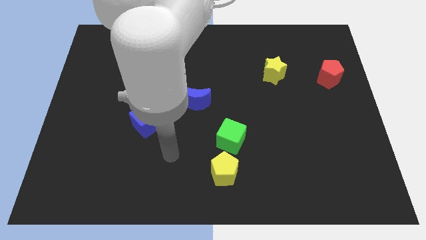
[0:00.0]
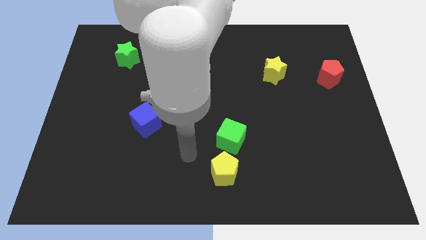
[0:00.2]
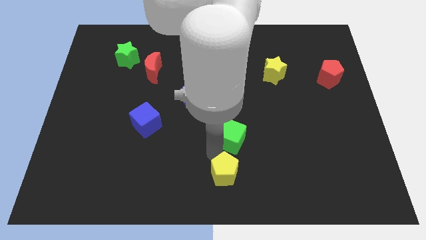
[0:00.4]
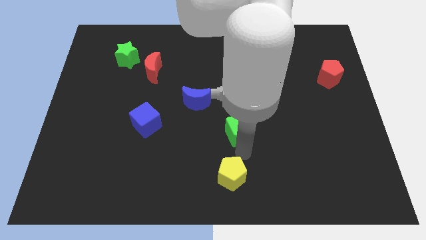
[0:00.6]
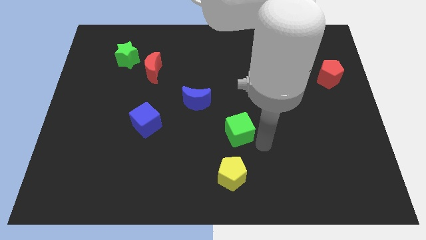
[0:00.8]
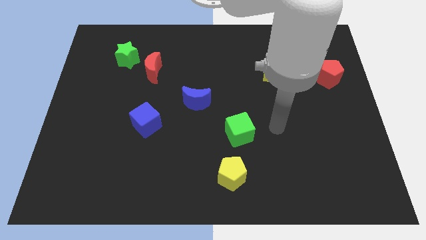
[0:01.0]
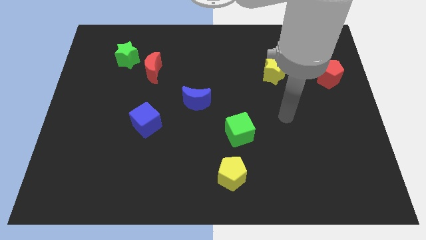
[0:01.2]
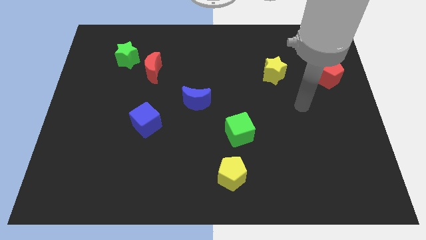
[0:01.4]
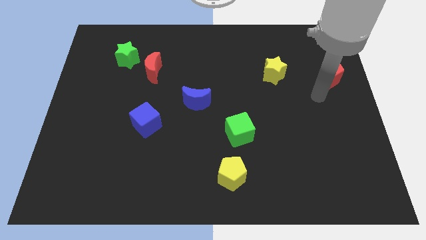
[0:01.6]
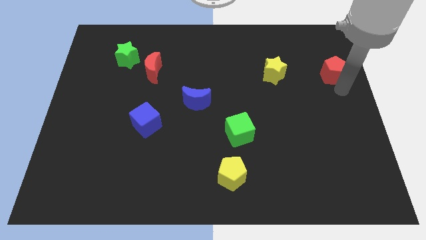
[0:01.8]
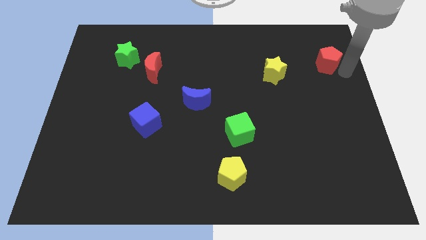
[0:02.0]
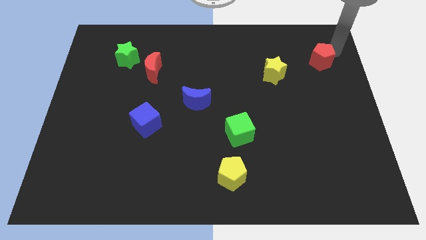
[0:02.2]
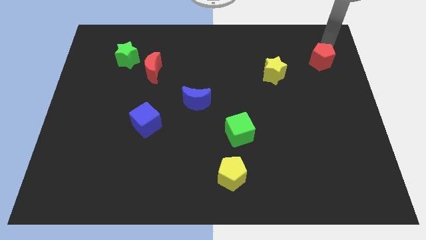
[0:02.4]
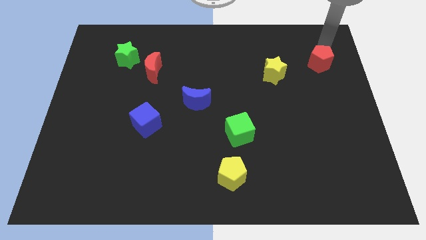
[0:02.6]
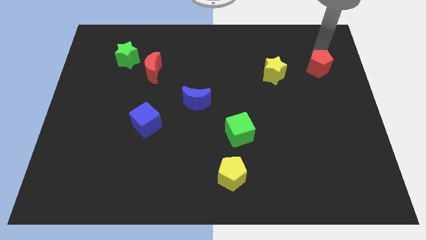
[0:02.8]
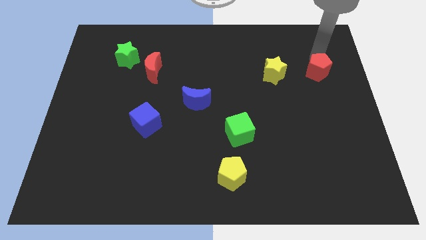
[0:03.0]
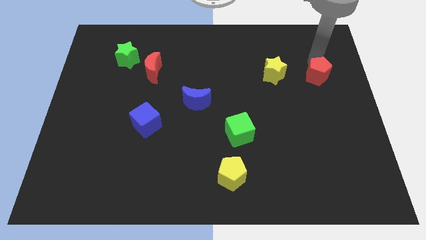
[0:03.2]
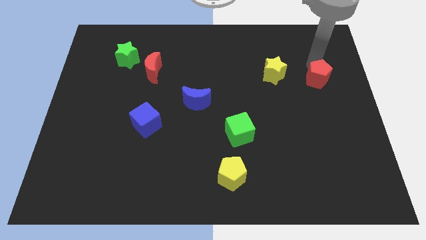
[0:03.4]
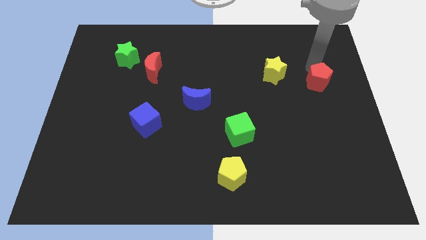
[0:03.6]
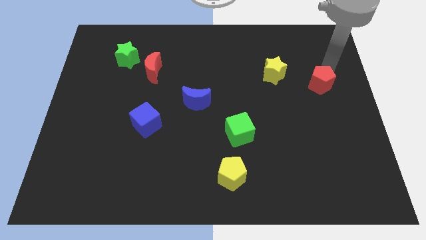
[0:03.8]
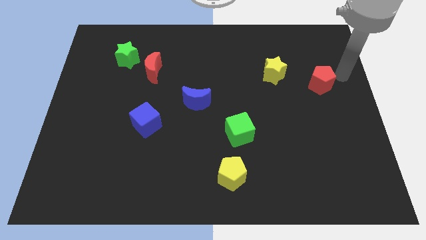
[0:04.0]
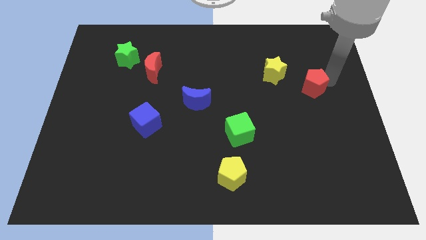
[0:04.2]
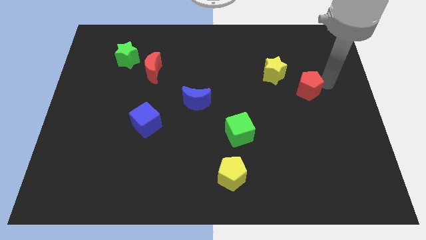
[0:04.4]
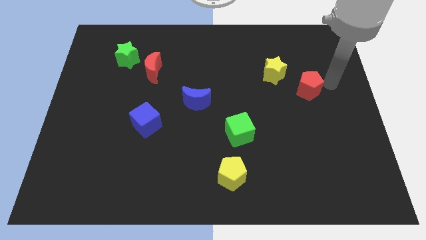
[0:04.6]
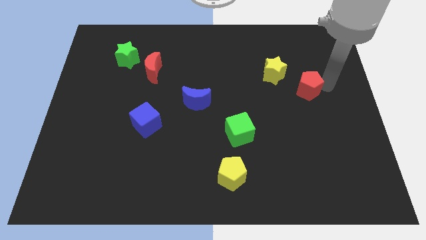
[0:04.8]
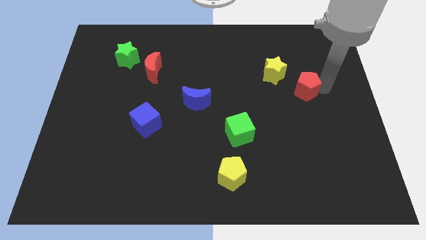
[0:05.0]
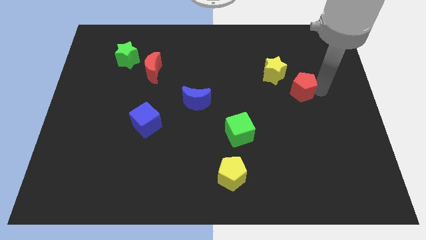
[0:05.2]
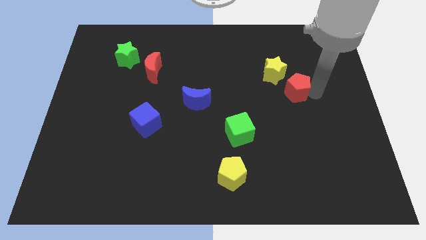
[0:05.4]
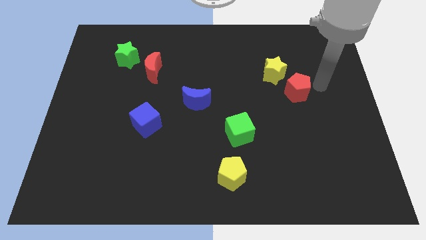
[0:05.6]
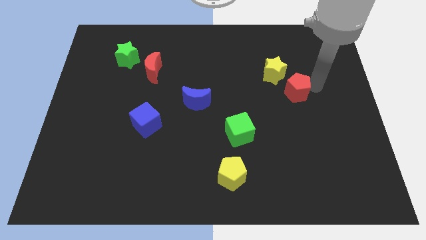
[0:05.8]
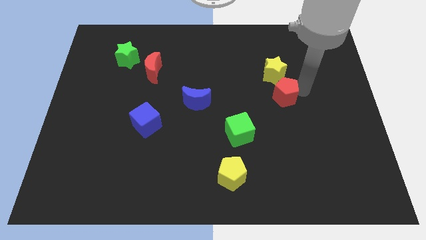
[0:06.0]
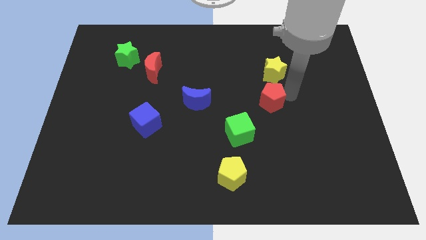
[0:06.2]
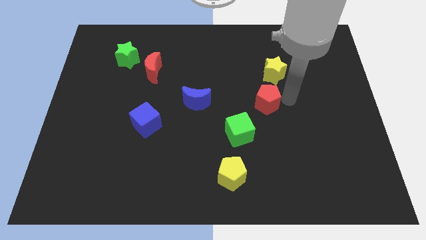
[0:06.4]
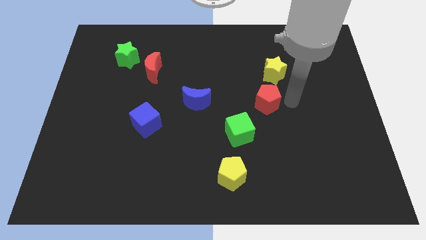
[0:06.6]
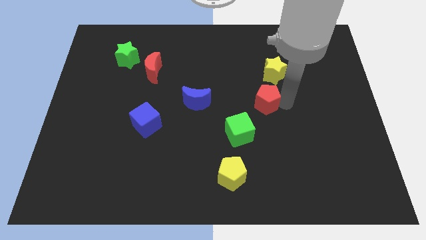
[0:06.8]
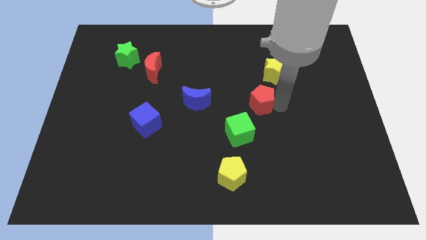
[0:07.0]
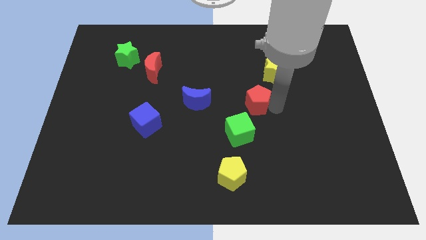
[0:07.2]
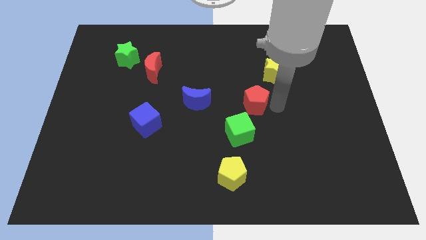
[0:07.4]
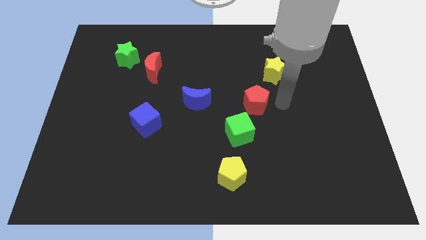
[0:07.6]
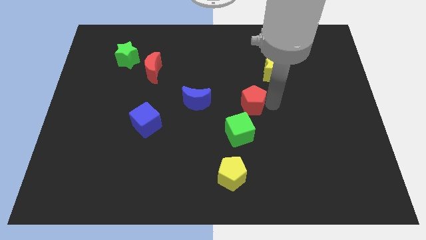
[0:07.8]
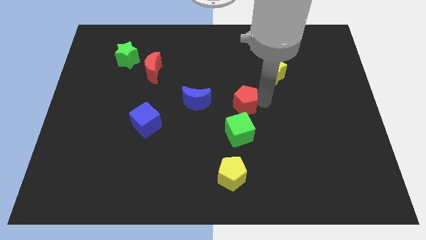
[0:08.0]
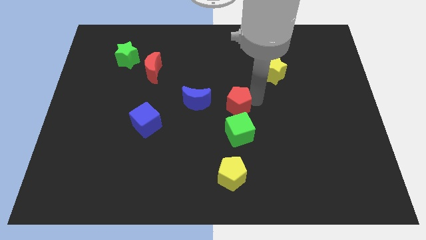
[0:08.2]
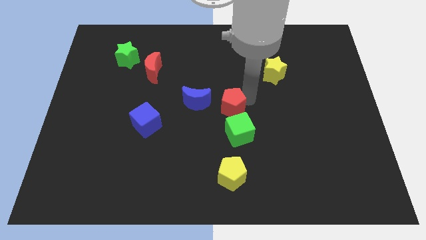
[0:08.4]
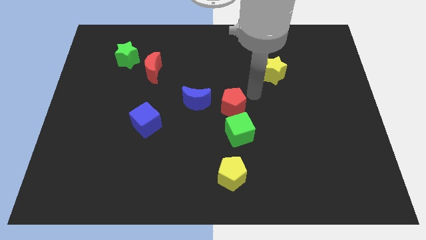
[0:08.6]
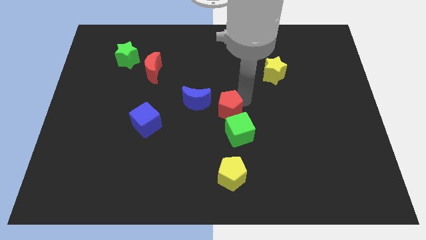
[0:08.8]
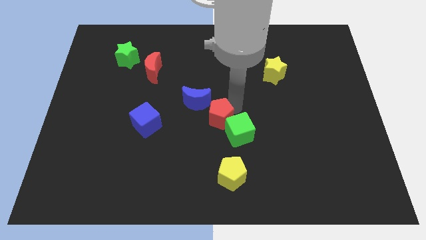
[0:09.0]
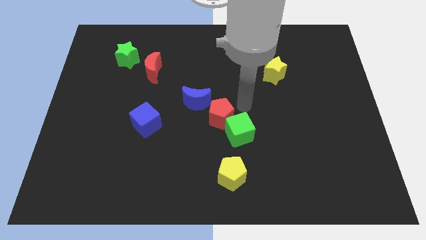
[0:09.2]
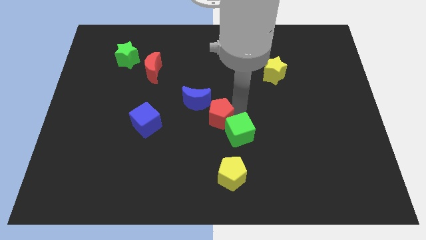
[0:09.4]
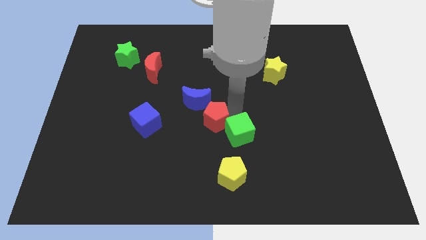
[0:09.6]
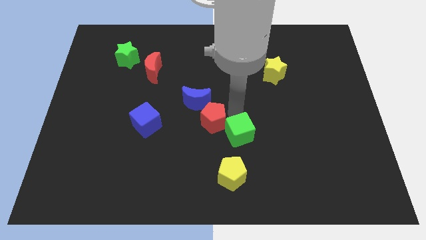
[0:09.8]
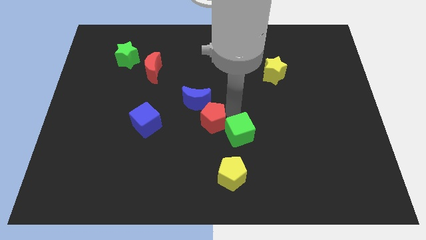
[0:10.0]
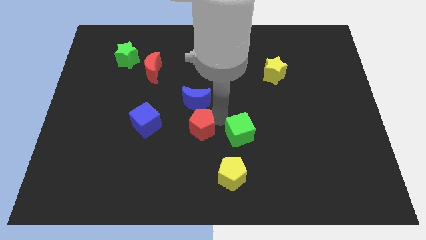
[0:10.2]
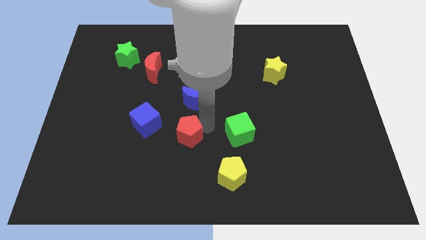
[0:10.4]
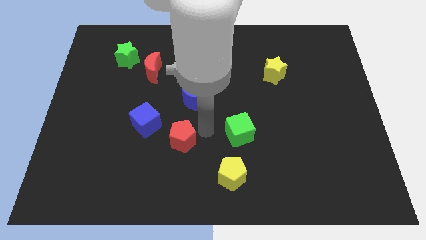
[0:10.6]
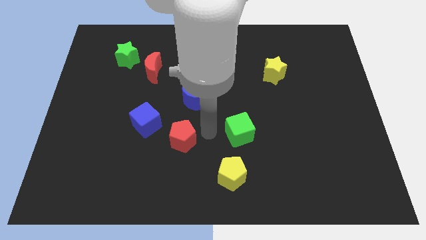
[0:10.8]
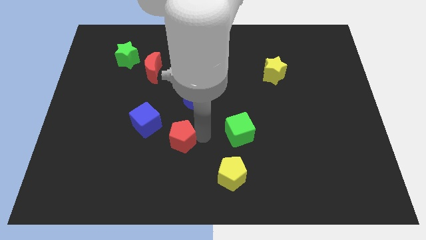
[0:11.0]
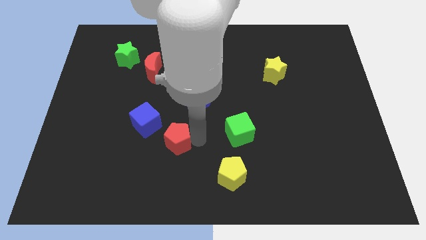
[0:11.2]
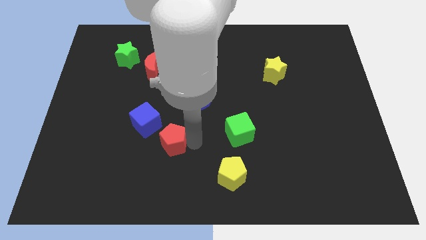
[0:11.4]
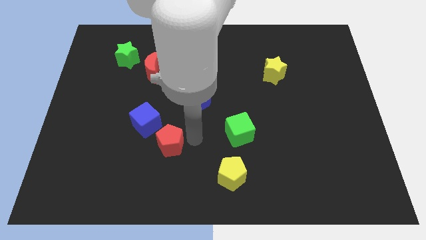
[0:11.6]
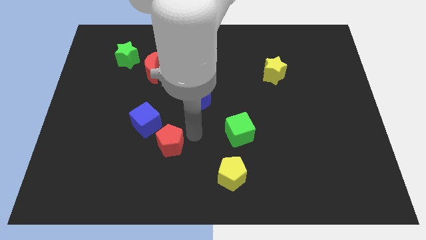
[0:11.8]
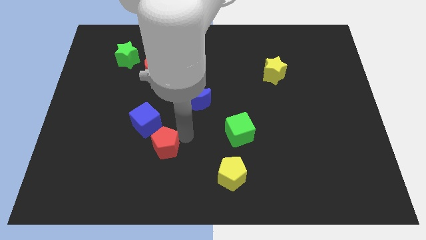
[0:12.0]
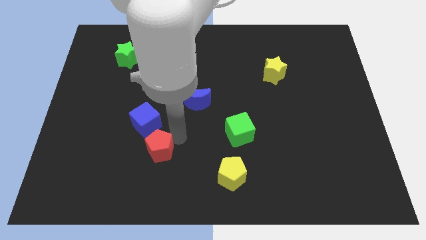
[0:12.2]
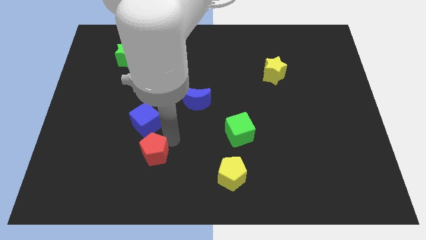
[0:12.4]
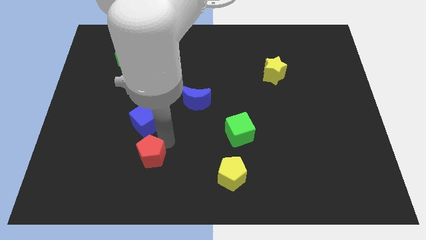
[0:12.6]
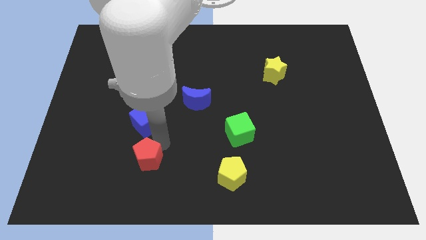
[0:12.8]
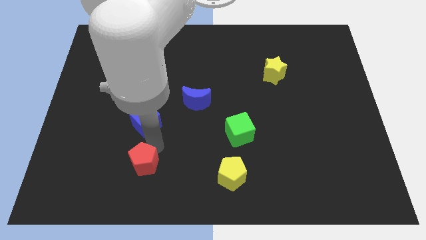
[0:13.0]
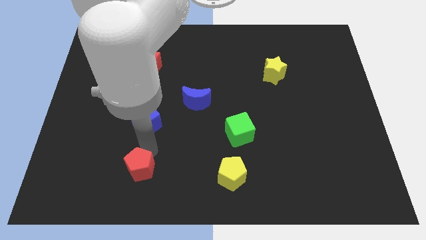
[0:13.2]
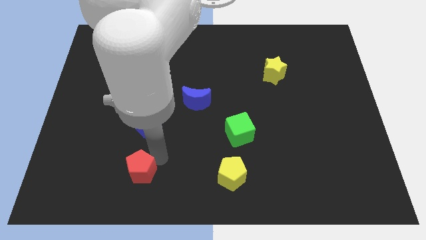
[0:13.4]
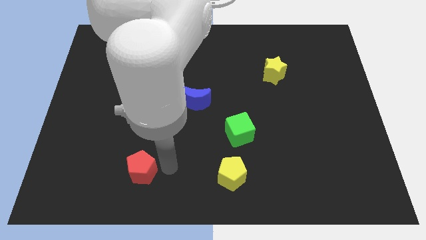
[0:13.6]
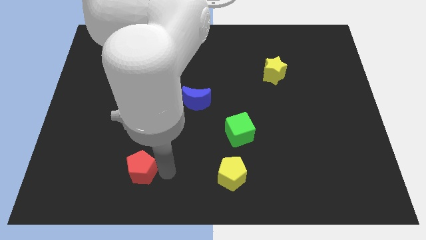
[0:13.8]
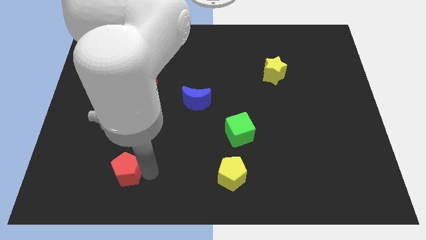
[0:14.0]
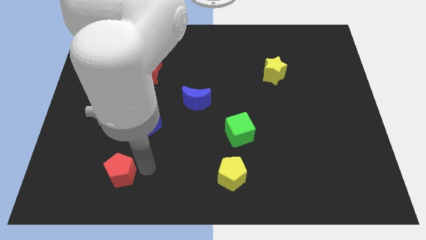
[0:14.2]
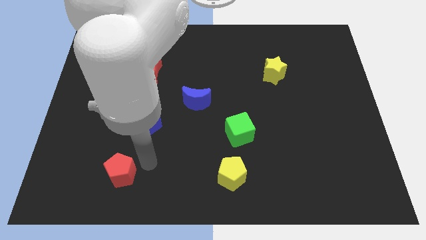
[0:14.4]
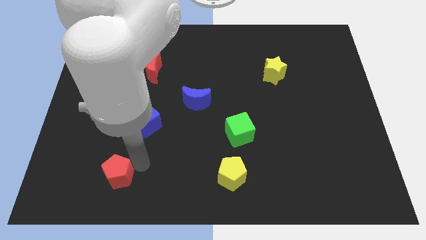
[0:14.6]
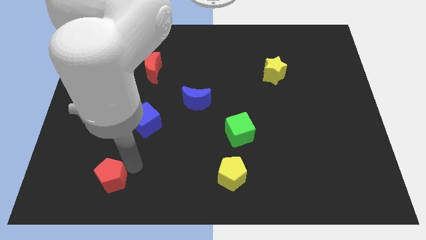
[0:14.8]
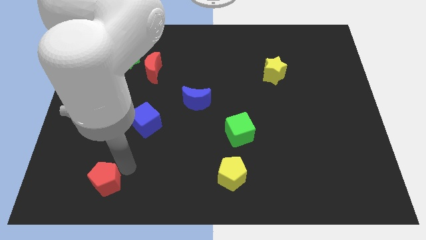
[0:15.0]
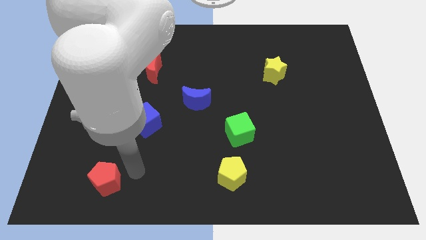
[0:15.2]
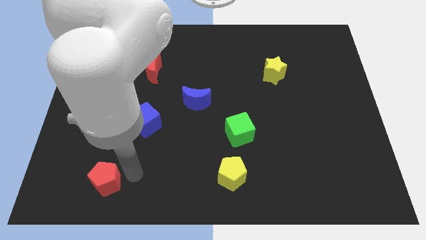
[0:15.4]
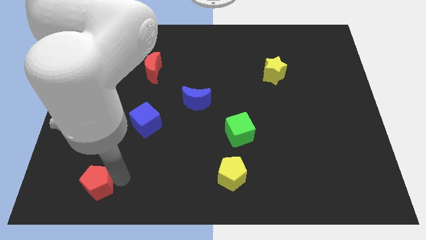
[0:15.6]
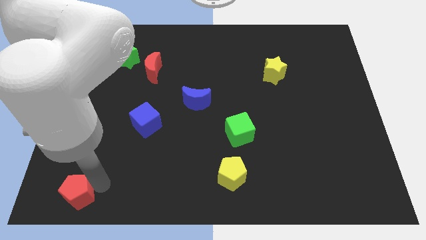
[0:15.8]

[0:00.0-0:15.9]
push the red pentagon to the bottom left
